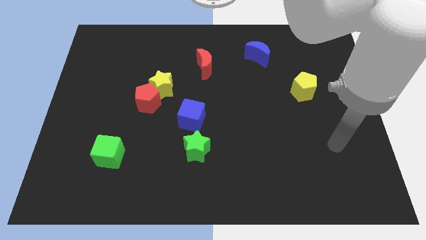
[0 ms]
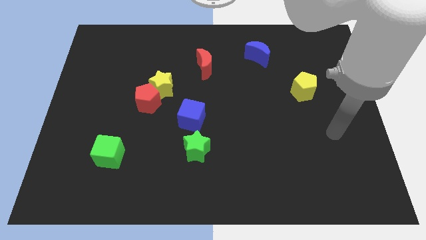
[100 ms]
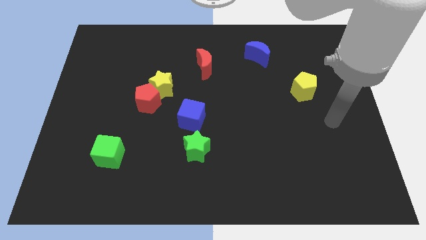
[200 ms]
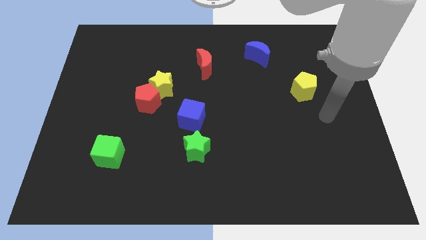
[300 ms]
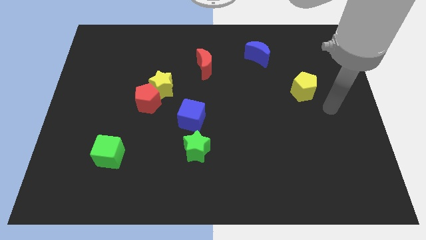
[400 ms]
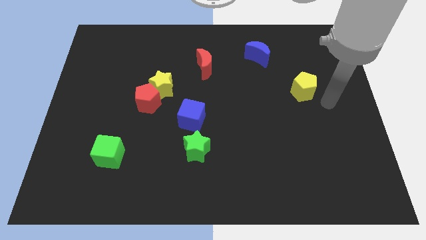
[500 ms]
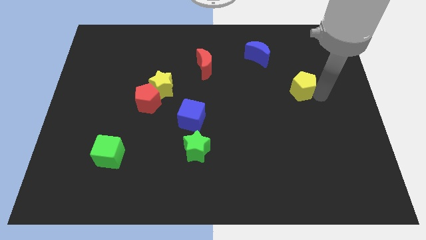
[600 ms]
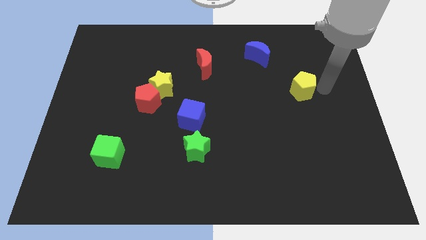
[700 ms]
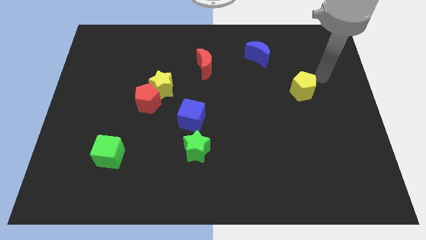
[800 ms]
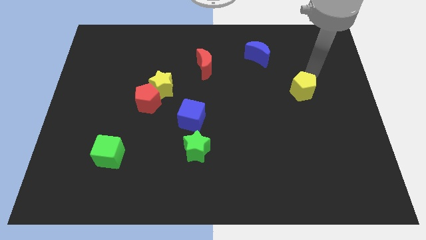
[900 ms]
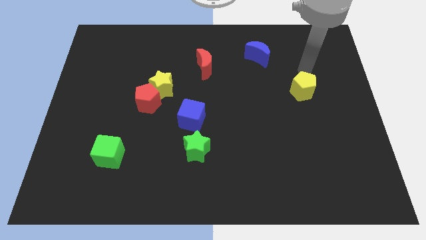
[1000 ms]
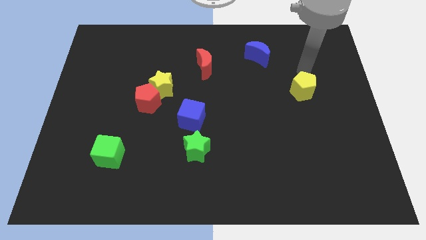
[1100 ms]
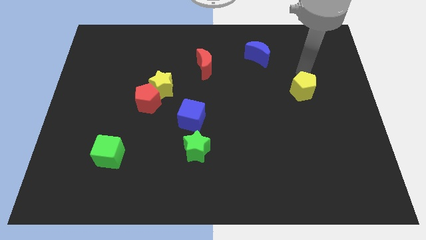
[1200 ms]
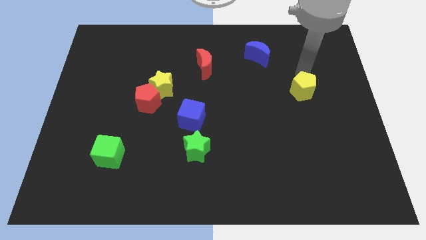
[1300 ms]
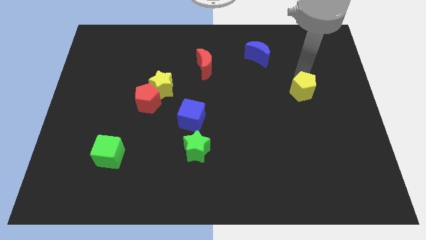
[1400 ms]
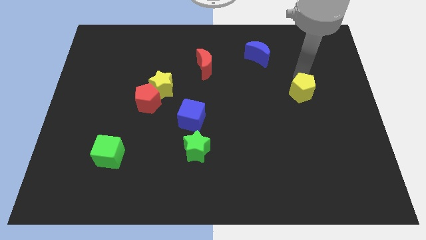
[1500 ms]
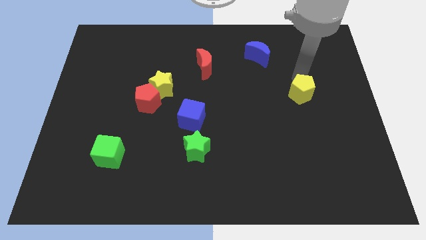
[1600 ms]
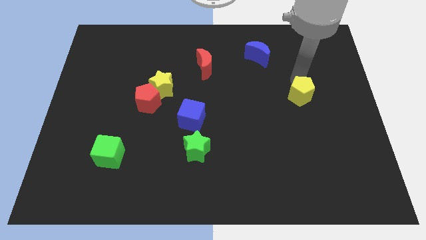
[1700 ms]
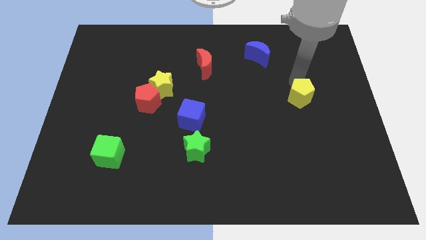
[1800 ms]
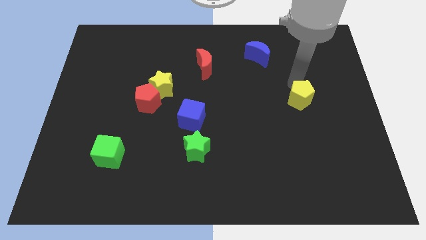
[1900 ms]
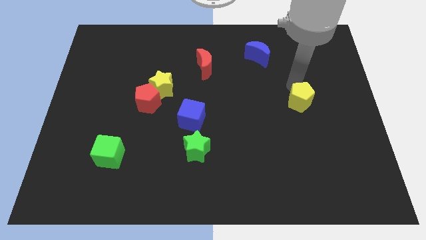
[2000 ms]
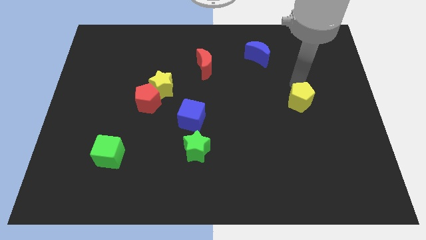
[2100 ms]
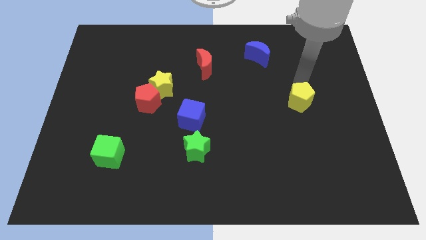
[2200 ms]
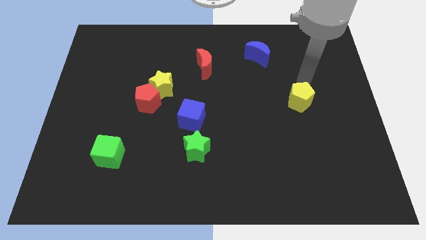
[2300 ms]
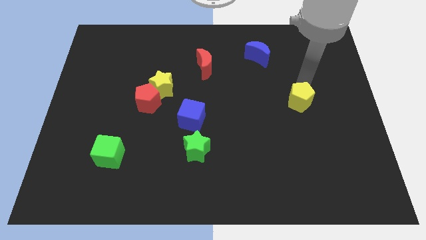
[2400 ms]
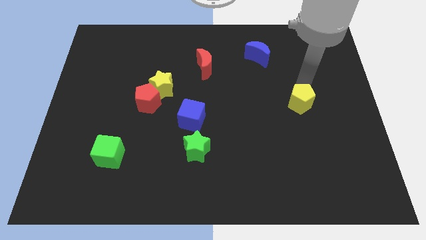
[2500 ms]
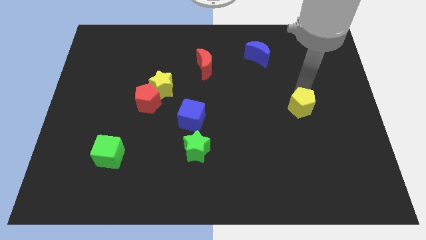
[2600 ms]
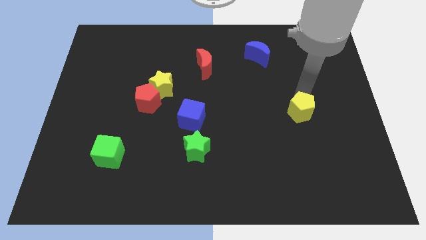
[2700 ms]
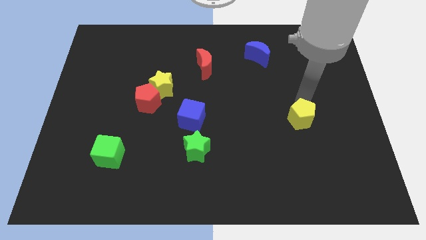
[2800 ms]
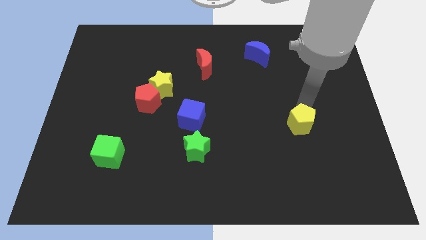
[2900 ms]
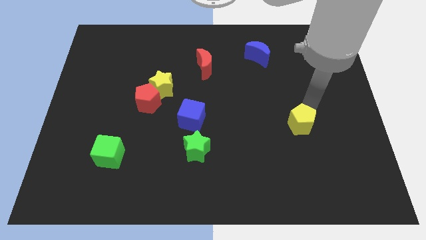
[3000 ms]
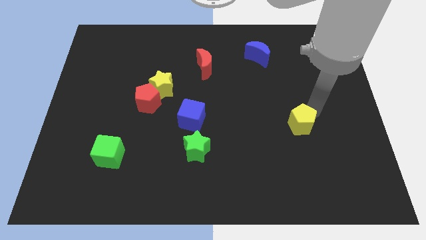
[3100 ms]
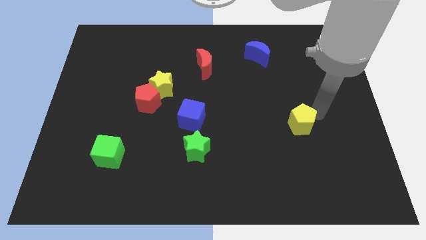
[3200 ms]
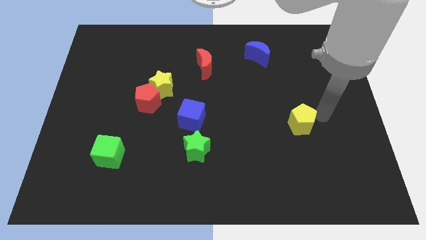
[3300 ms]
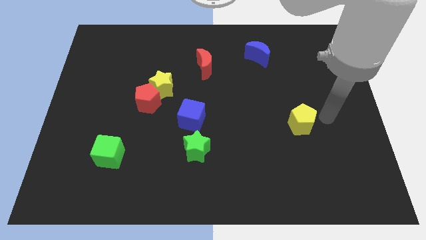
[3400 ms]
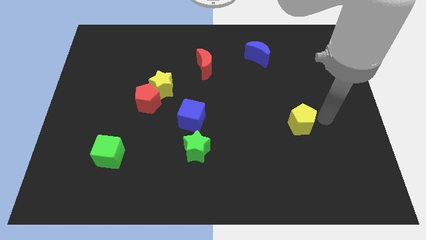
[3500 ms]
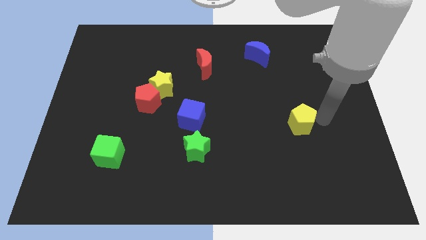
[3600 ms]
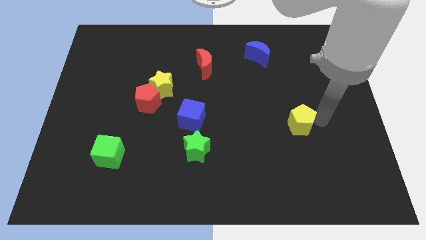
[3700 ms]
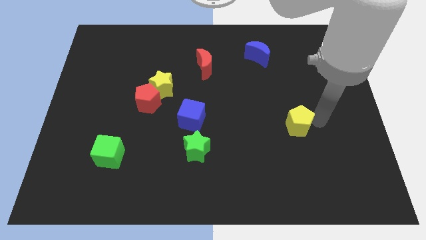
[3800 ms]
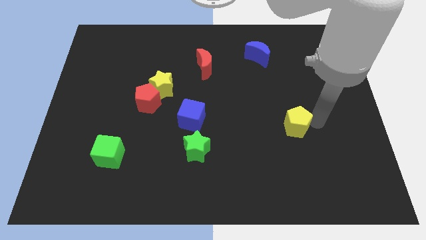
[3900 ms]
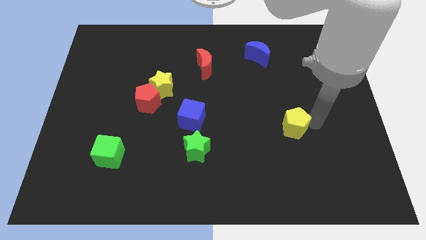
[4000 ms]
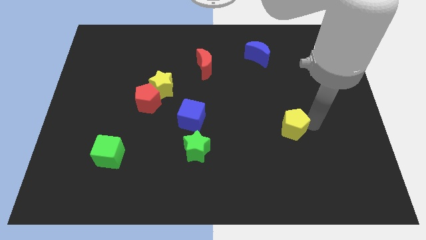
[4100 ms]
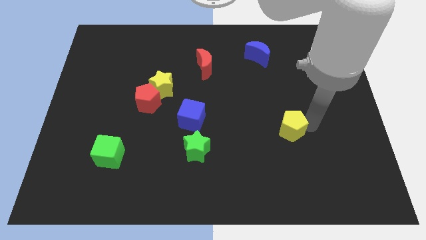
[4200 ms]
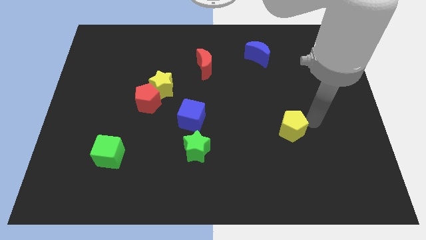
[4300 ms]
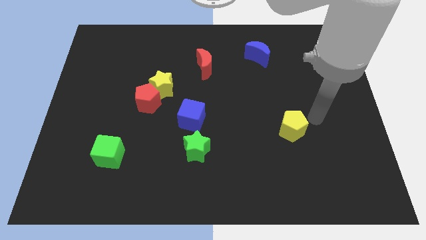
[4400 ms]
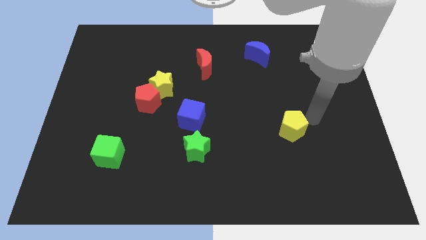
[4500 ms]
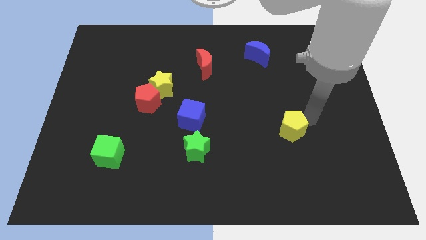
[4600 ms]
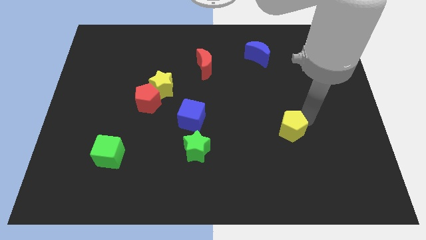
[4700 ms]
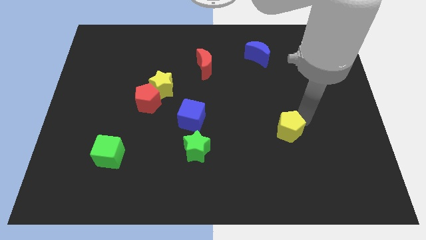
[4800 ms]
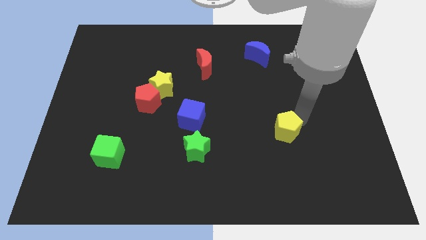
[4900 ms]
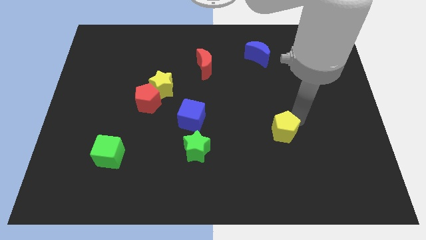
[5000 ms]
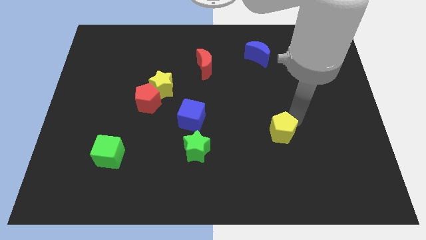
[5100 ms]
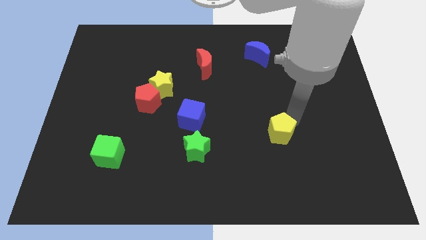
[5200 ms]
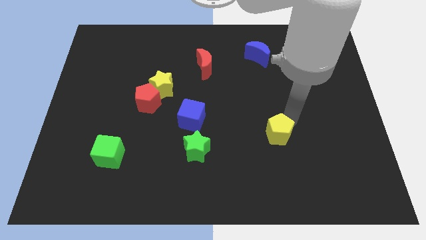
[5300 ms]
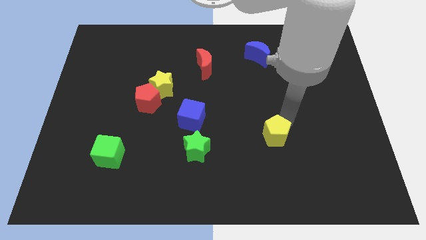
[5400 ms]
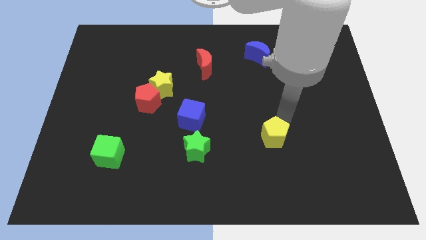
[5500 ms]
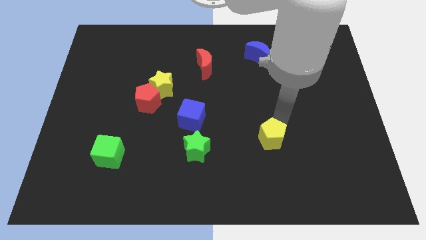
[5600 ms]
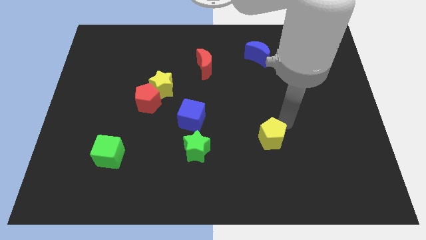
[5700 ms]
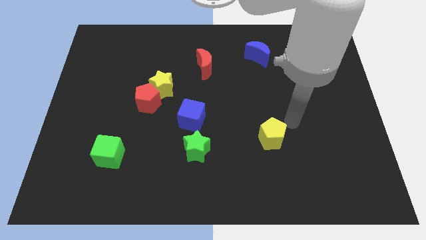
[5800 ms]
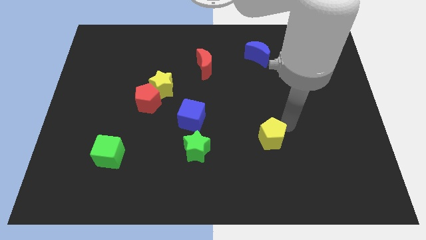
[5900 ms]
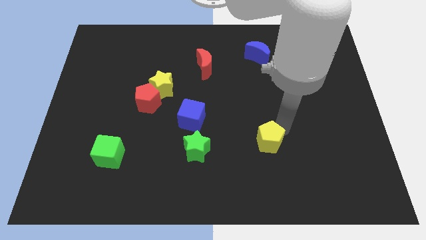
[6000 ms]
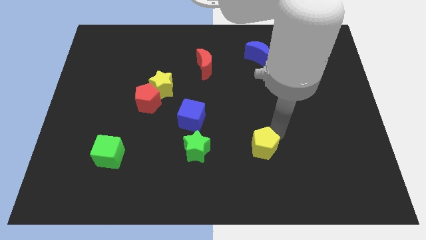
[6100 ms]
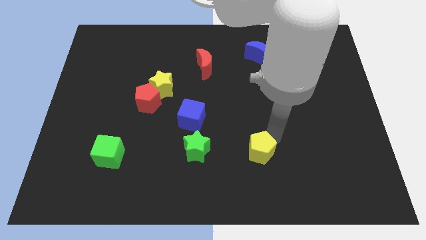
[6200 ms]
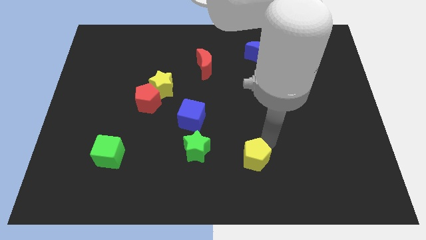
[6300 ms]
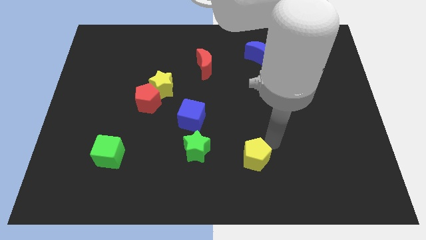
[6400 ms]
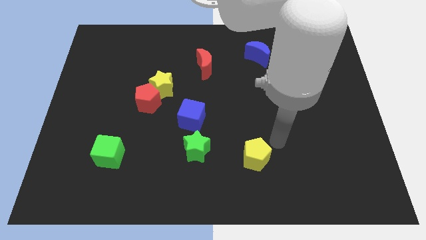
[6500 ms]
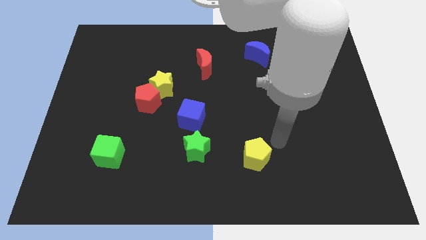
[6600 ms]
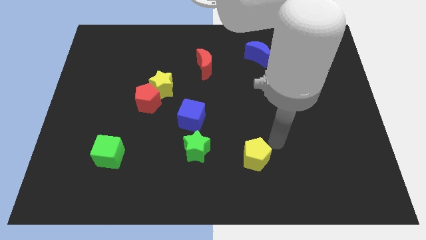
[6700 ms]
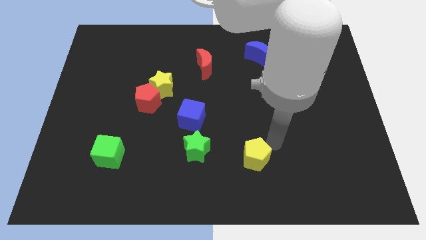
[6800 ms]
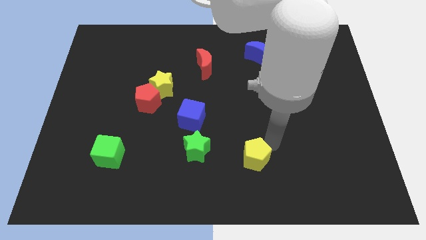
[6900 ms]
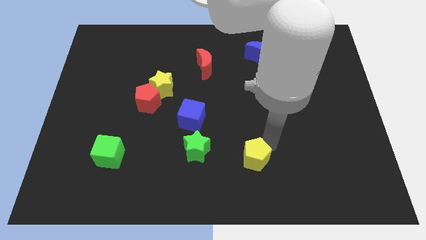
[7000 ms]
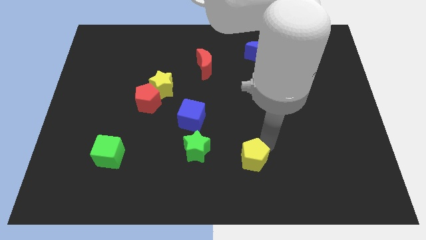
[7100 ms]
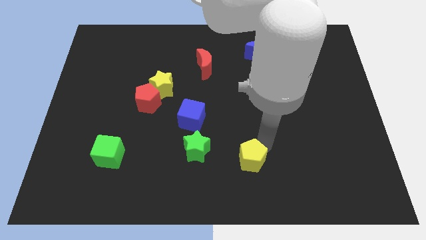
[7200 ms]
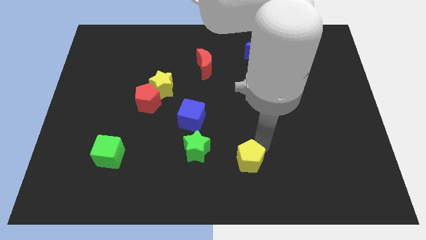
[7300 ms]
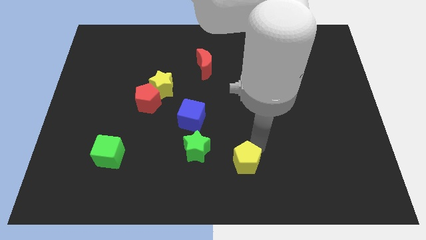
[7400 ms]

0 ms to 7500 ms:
slide the yellow pentagon to the bottom side
